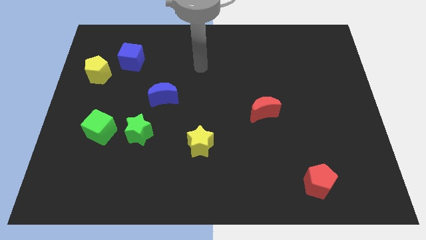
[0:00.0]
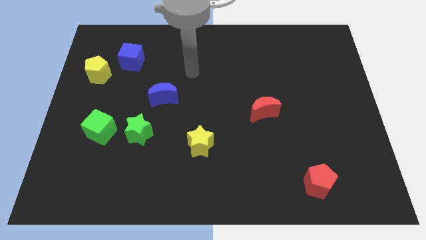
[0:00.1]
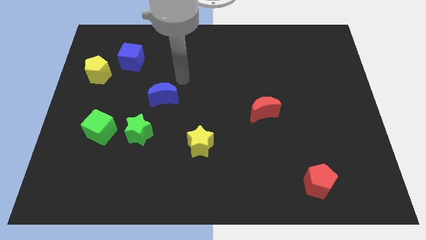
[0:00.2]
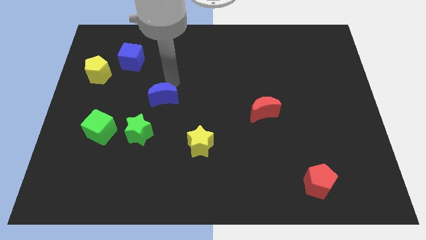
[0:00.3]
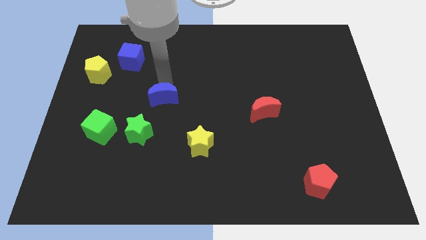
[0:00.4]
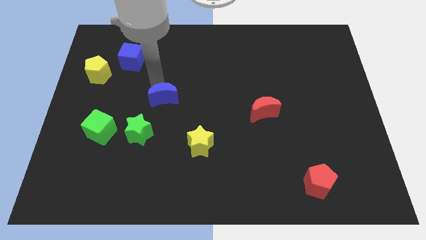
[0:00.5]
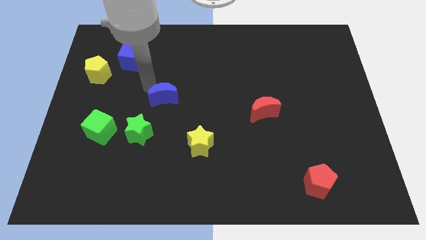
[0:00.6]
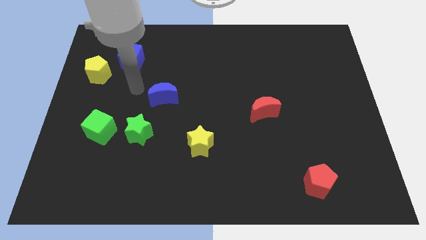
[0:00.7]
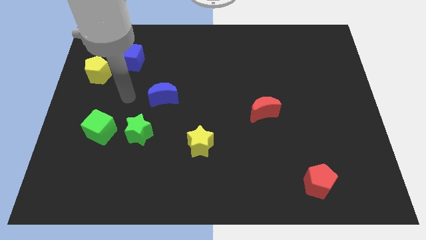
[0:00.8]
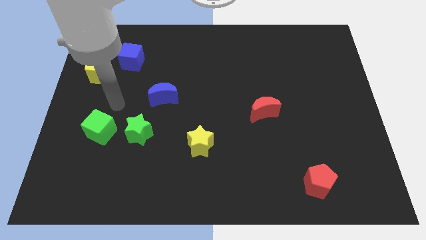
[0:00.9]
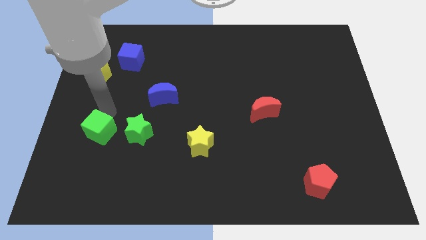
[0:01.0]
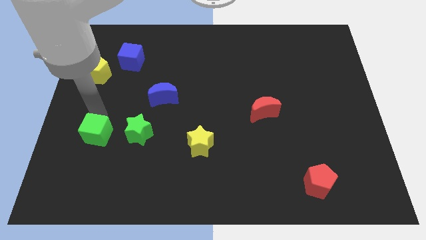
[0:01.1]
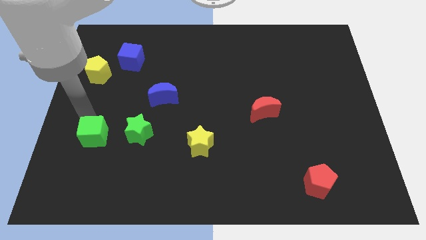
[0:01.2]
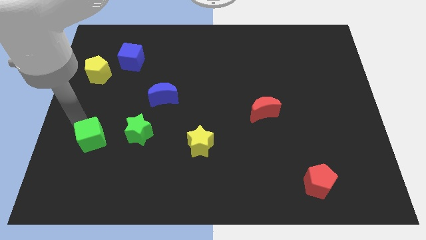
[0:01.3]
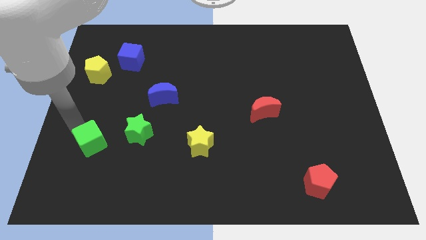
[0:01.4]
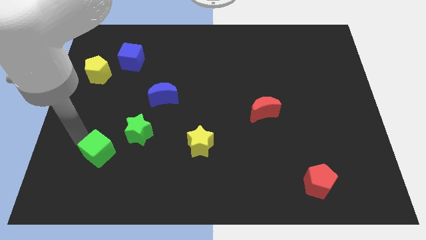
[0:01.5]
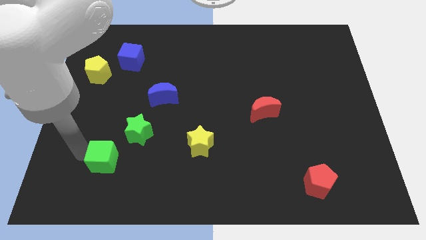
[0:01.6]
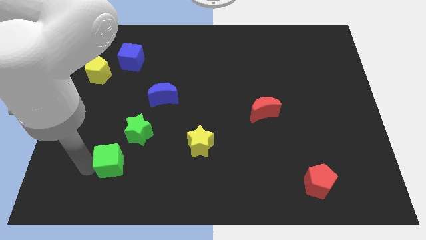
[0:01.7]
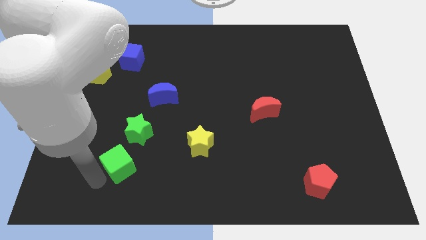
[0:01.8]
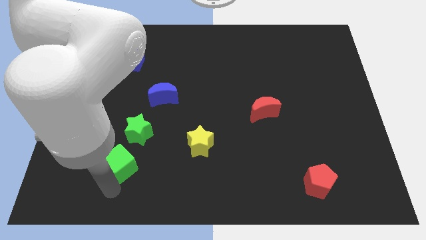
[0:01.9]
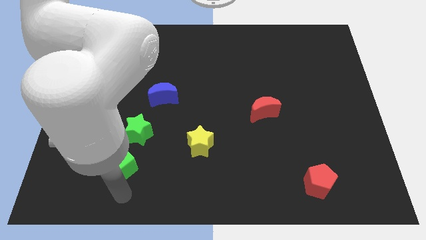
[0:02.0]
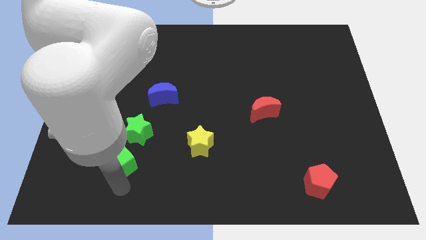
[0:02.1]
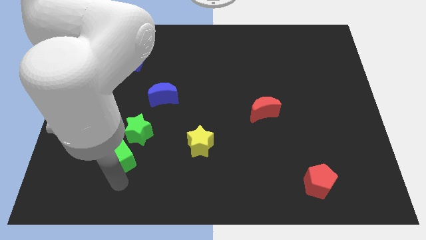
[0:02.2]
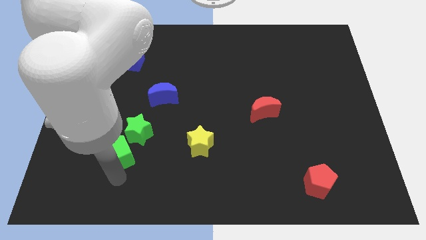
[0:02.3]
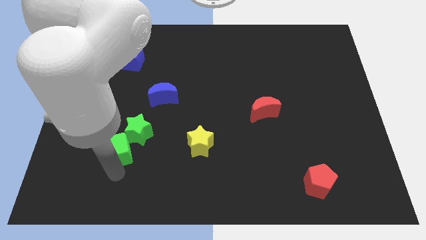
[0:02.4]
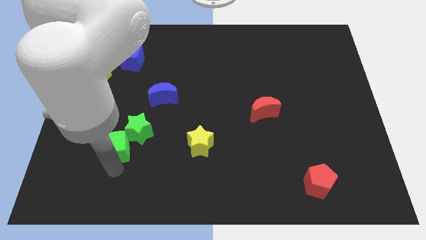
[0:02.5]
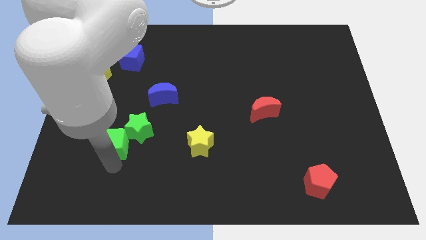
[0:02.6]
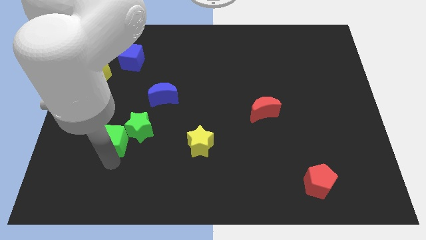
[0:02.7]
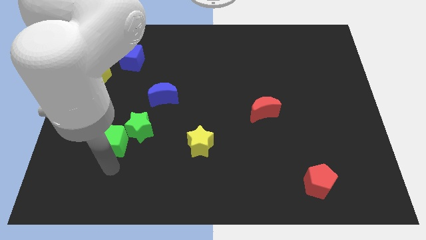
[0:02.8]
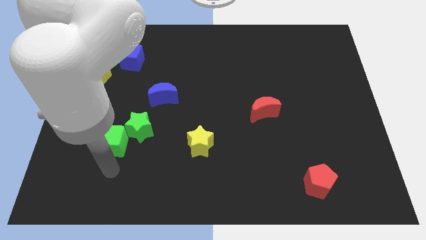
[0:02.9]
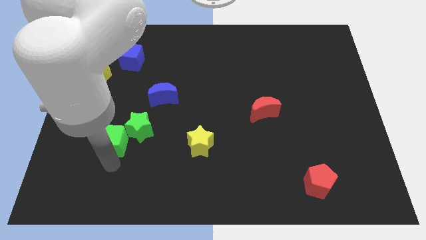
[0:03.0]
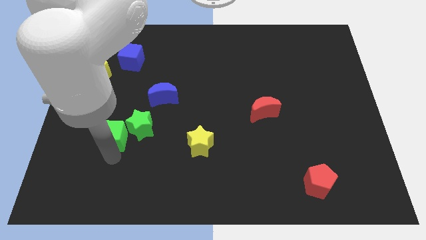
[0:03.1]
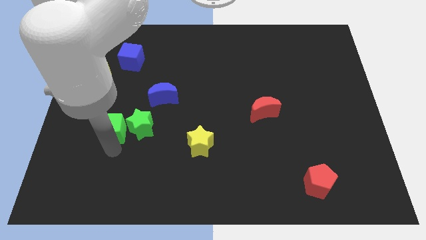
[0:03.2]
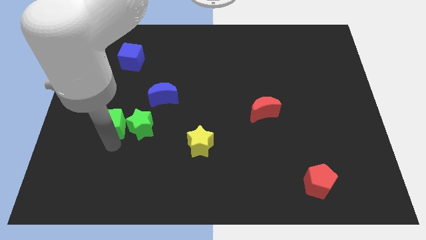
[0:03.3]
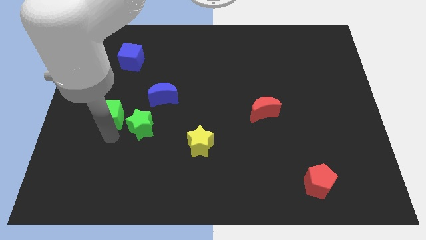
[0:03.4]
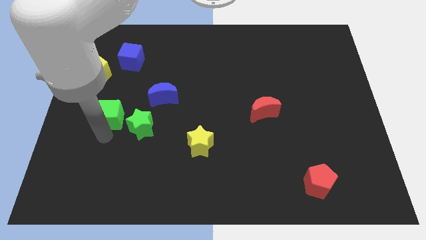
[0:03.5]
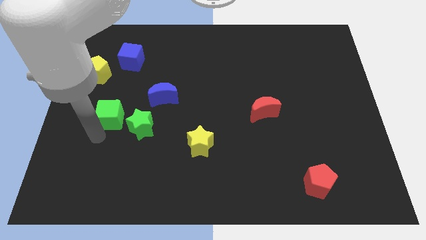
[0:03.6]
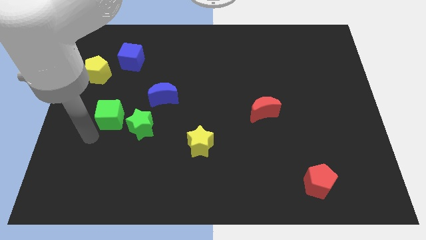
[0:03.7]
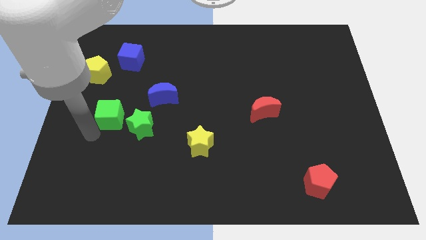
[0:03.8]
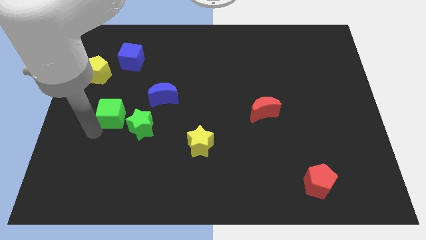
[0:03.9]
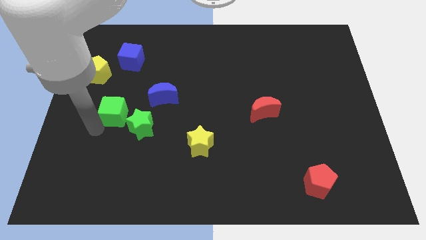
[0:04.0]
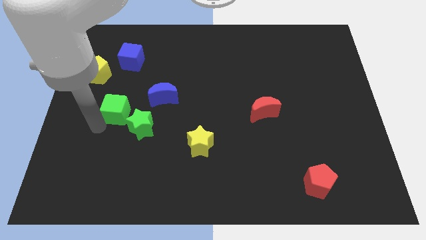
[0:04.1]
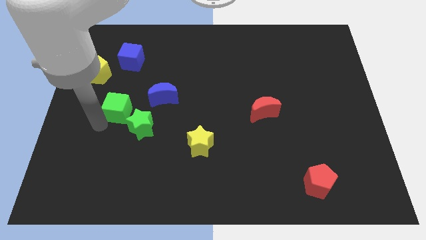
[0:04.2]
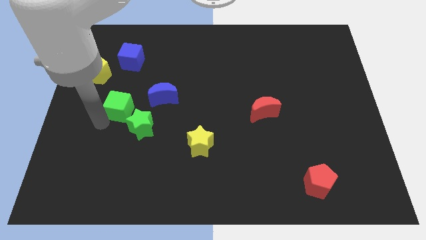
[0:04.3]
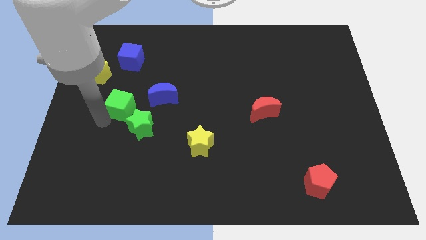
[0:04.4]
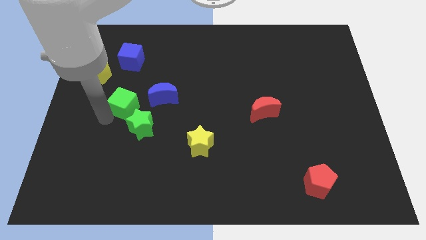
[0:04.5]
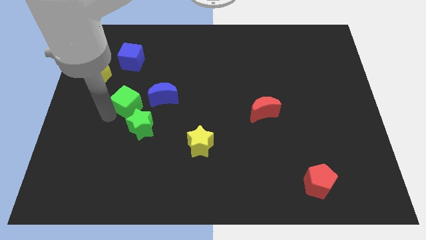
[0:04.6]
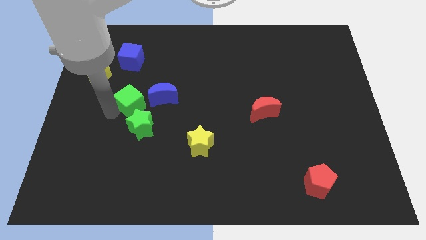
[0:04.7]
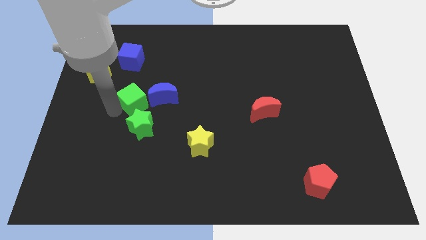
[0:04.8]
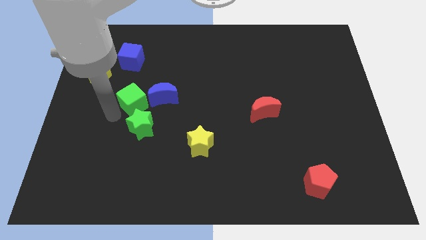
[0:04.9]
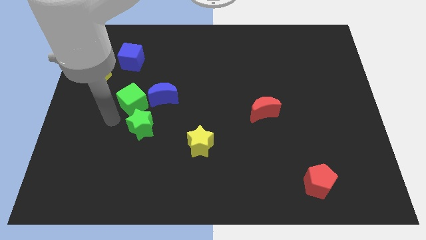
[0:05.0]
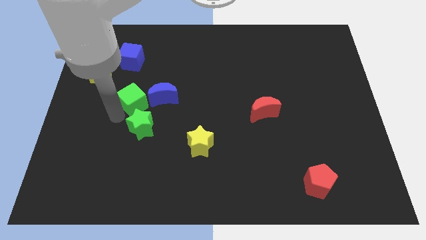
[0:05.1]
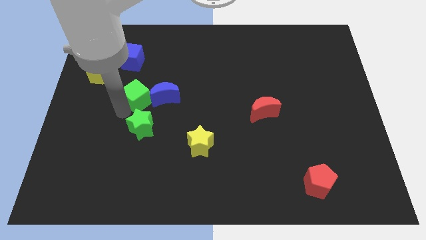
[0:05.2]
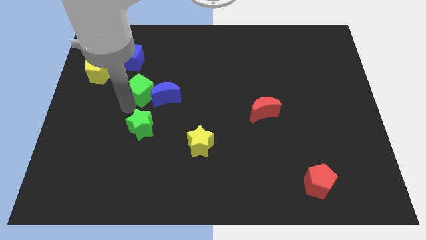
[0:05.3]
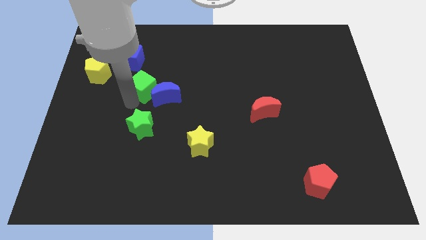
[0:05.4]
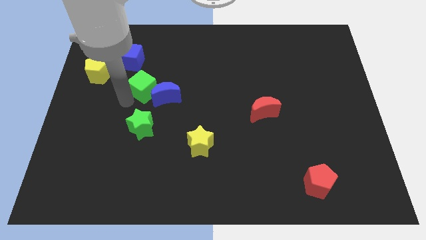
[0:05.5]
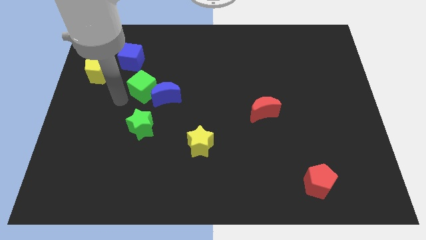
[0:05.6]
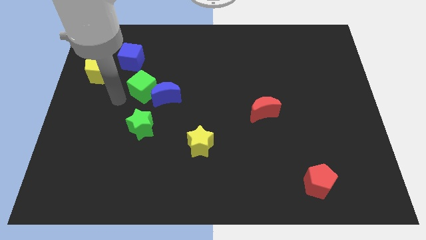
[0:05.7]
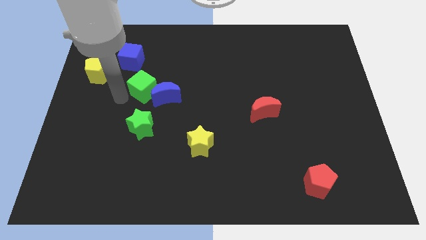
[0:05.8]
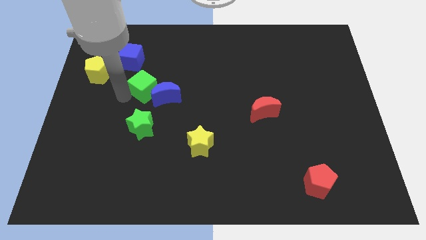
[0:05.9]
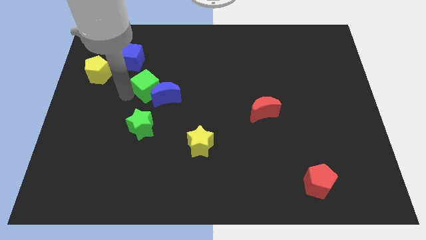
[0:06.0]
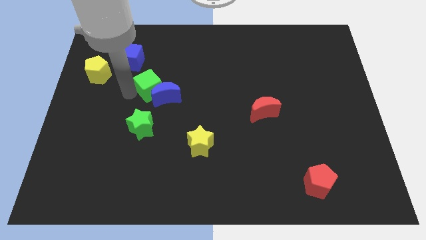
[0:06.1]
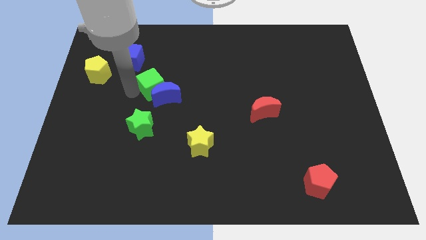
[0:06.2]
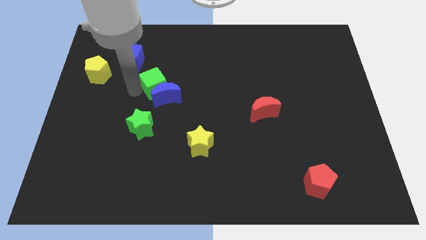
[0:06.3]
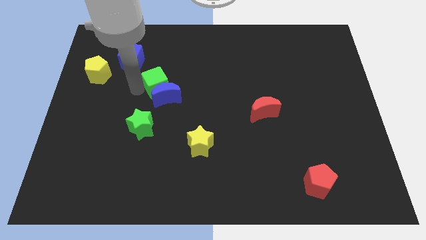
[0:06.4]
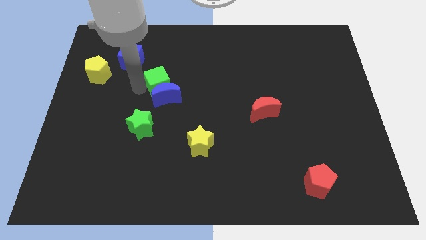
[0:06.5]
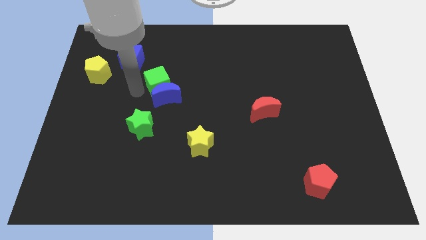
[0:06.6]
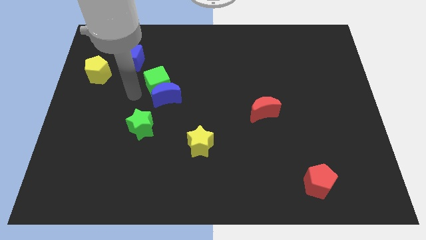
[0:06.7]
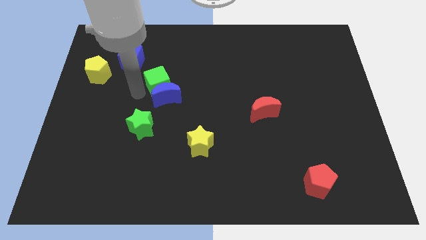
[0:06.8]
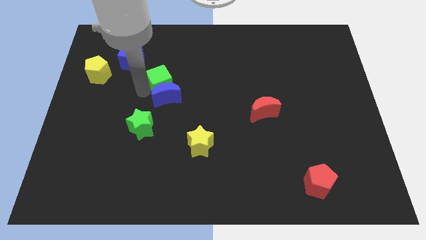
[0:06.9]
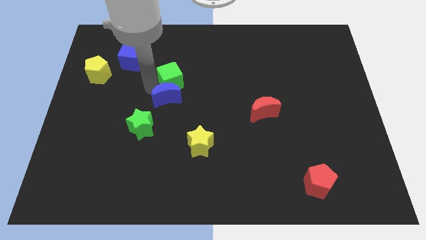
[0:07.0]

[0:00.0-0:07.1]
move the green cube diagonally upwards and right

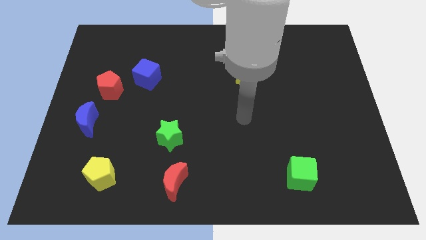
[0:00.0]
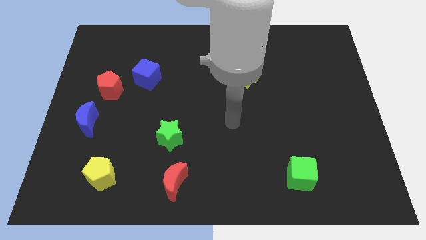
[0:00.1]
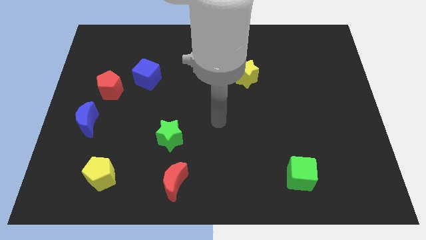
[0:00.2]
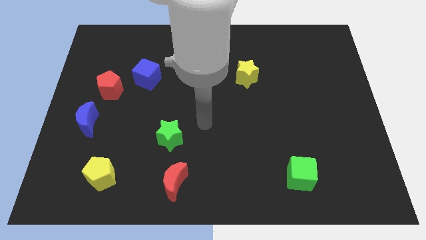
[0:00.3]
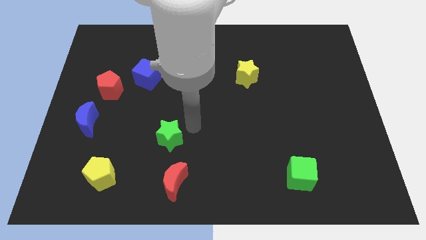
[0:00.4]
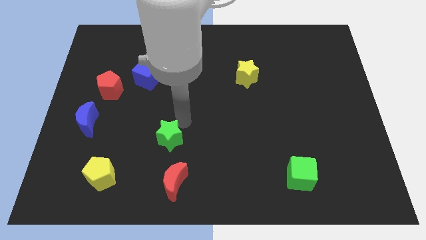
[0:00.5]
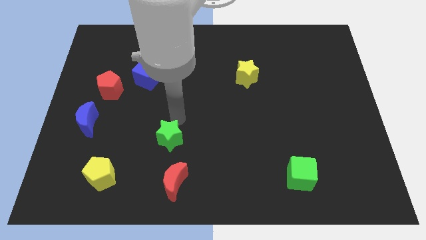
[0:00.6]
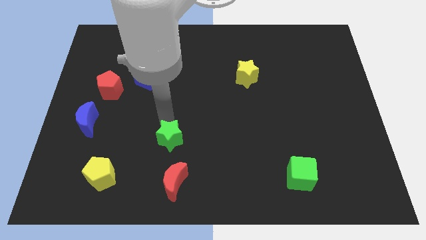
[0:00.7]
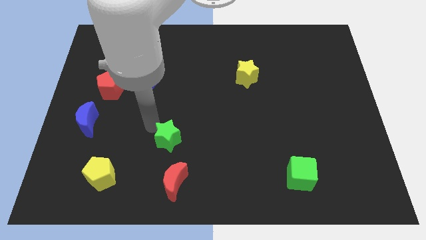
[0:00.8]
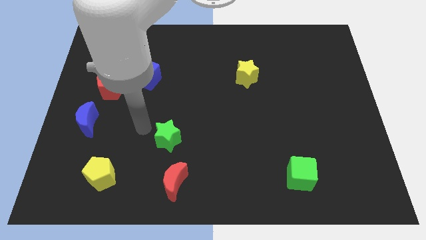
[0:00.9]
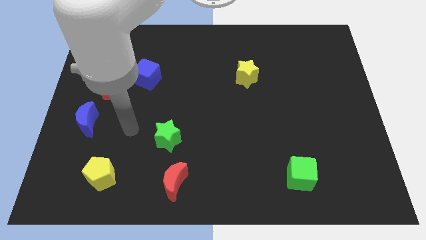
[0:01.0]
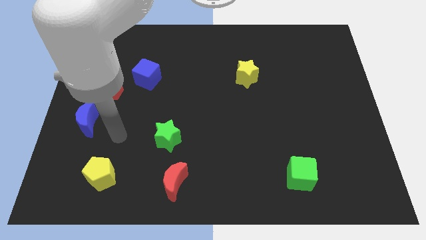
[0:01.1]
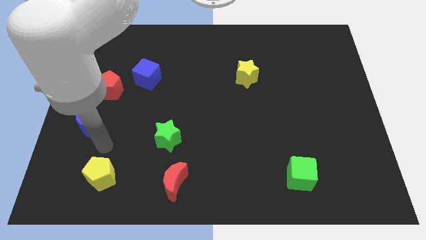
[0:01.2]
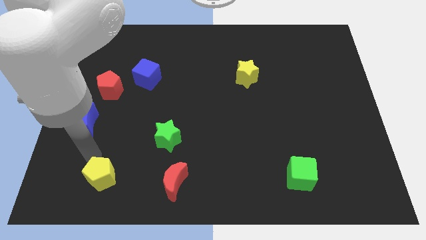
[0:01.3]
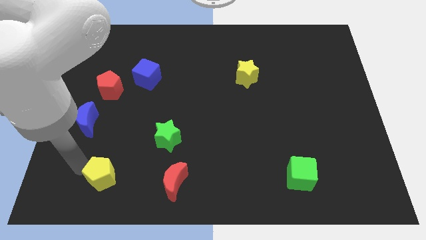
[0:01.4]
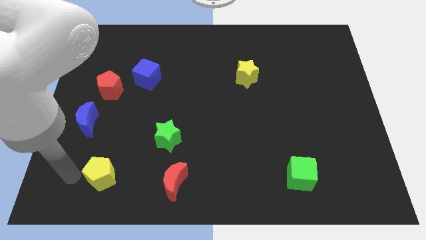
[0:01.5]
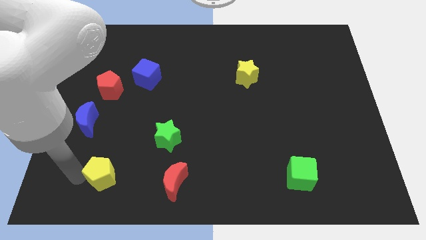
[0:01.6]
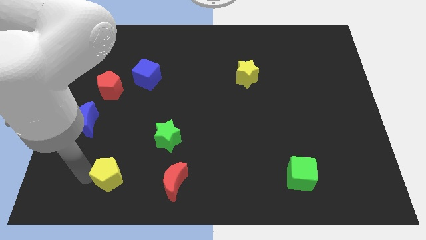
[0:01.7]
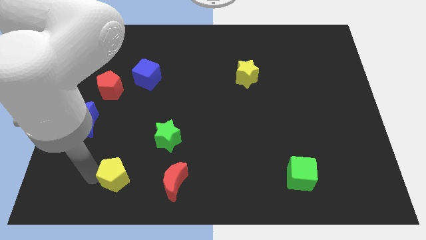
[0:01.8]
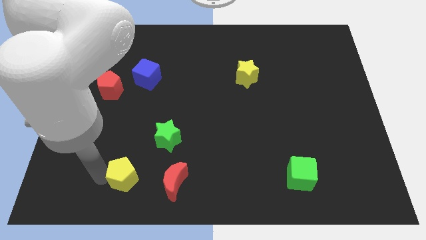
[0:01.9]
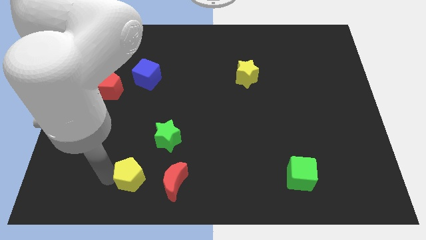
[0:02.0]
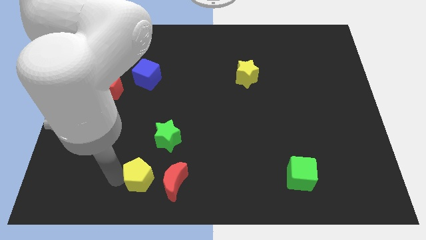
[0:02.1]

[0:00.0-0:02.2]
slide the yellow pentagon to the right slightly
